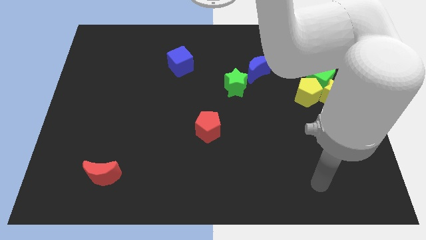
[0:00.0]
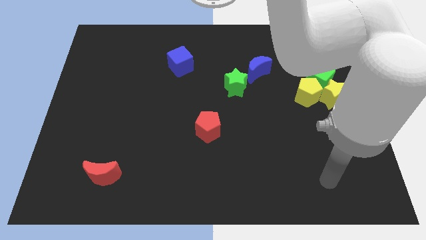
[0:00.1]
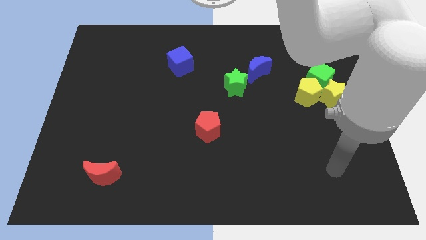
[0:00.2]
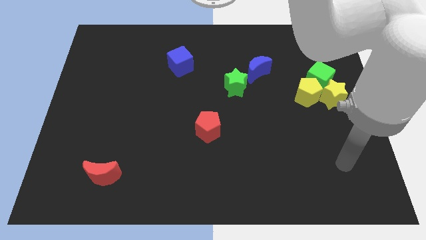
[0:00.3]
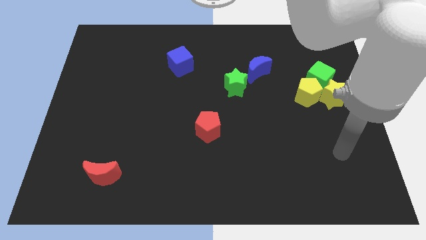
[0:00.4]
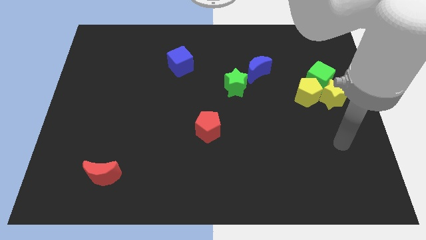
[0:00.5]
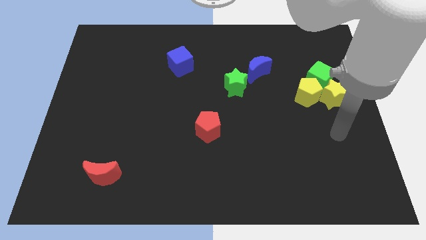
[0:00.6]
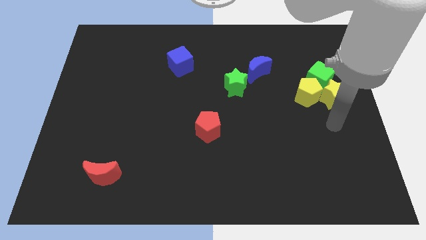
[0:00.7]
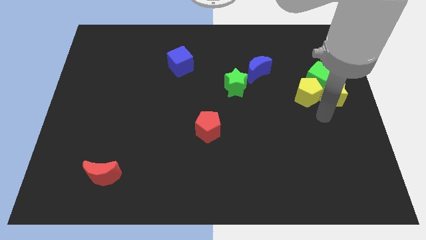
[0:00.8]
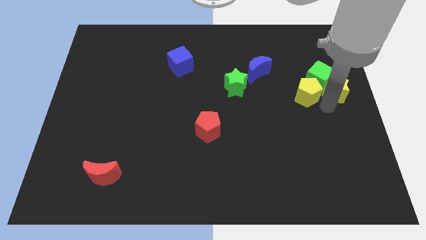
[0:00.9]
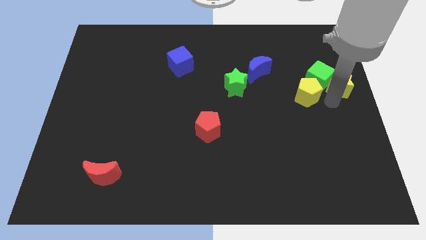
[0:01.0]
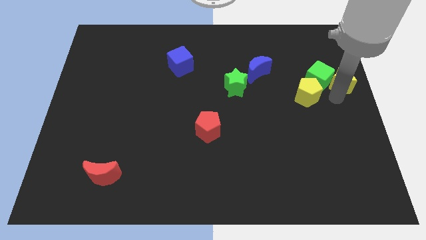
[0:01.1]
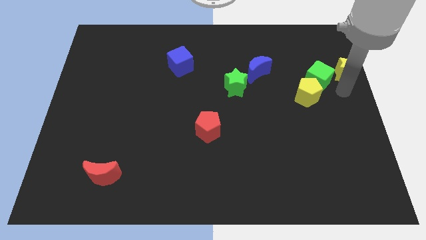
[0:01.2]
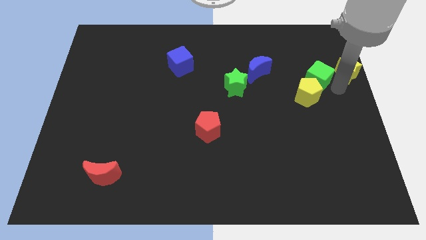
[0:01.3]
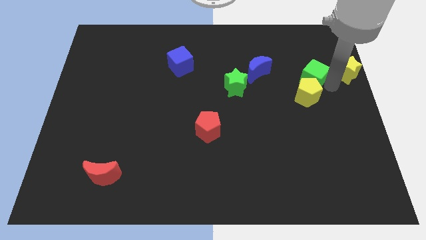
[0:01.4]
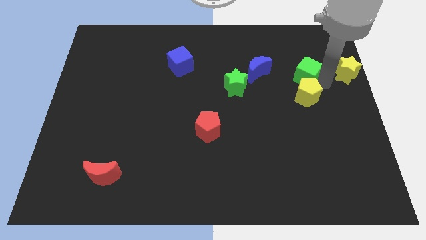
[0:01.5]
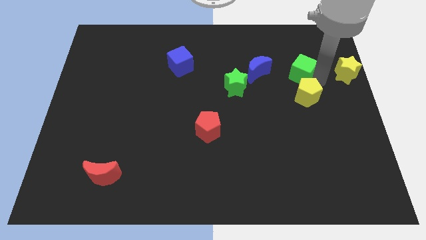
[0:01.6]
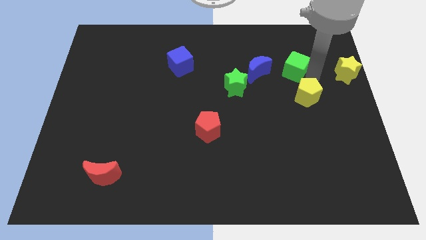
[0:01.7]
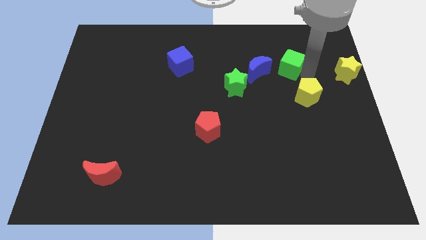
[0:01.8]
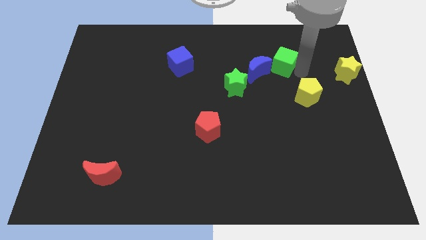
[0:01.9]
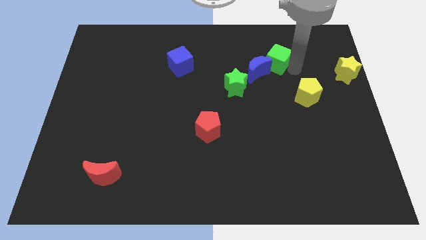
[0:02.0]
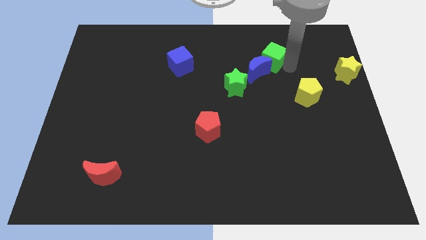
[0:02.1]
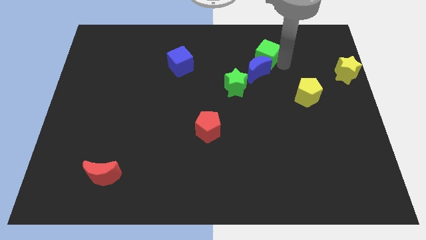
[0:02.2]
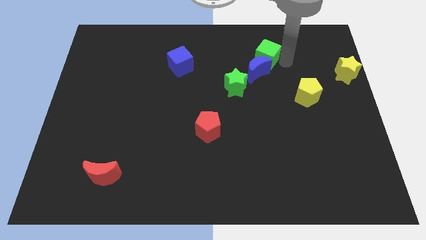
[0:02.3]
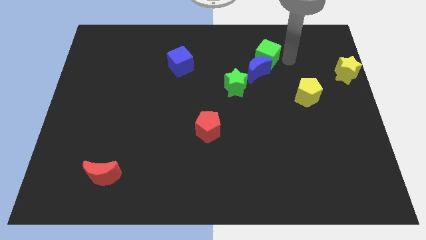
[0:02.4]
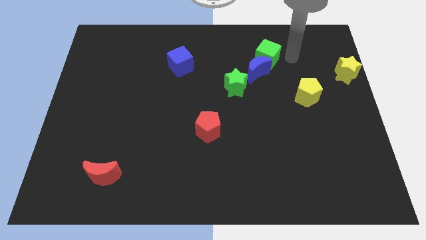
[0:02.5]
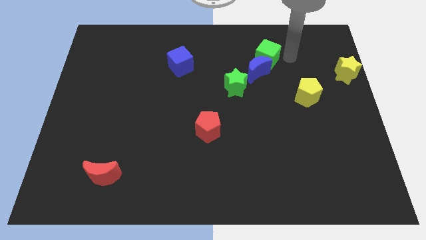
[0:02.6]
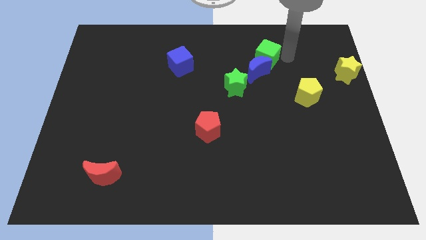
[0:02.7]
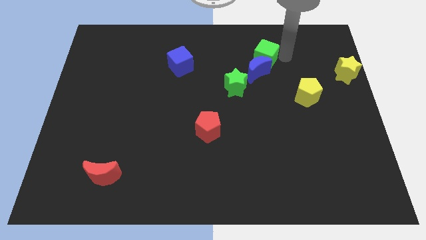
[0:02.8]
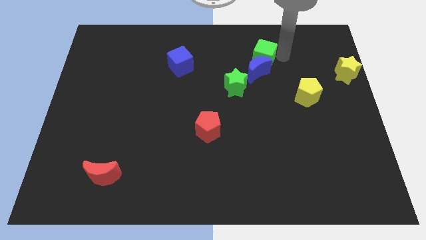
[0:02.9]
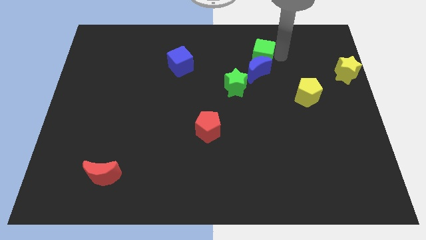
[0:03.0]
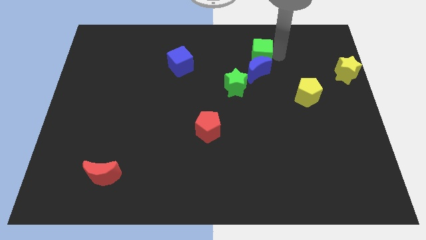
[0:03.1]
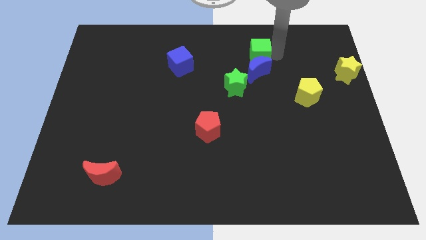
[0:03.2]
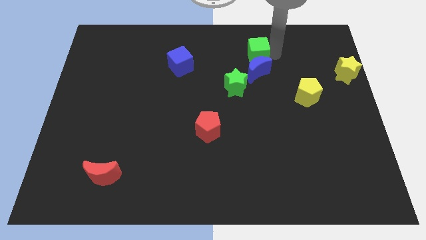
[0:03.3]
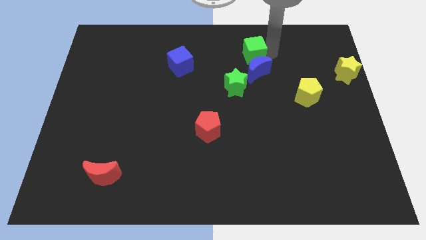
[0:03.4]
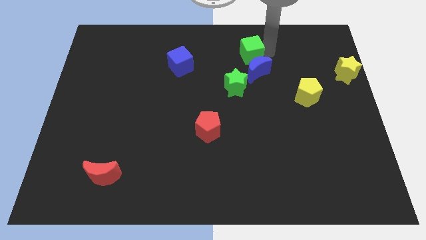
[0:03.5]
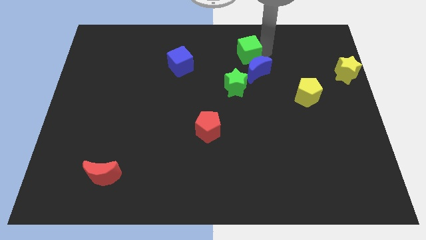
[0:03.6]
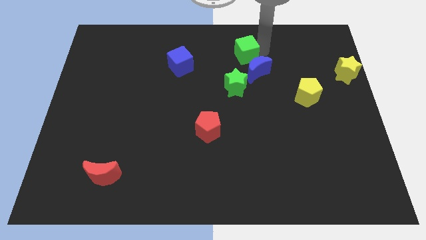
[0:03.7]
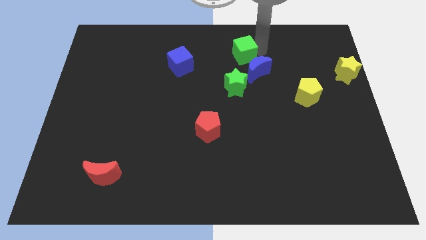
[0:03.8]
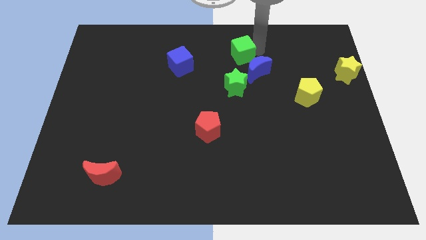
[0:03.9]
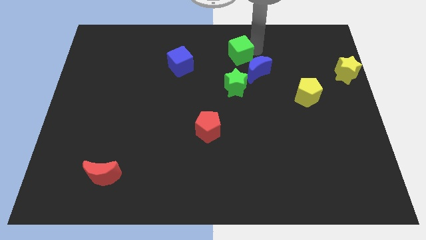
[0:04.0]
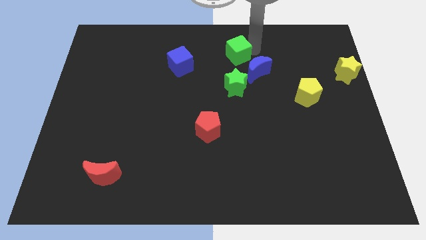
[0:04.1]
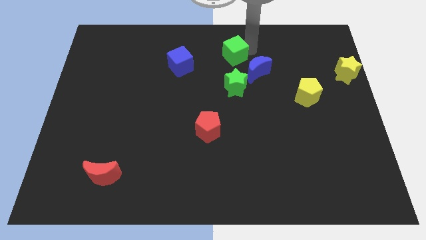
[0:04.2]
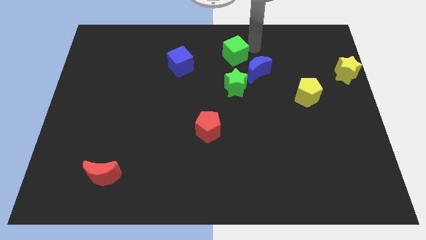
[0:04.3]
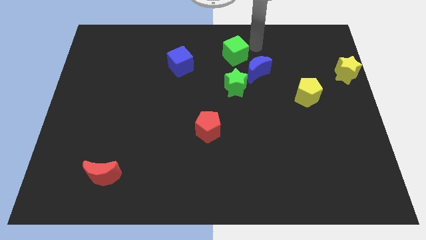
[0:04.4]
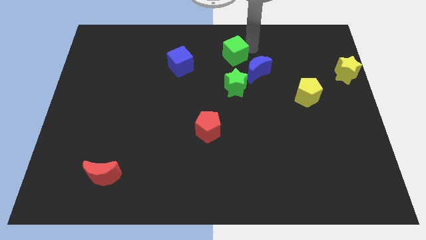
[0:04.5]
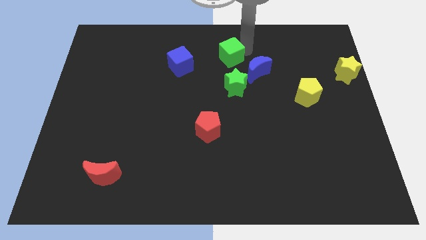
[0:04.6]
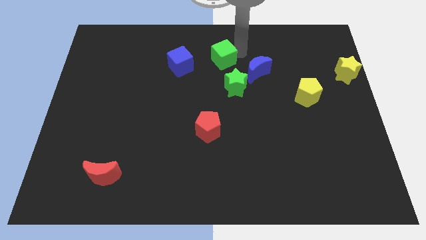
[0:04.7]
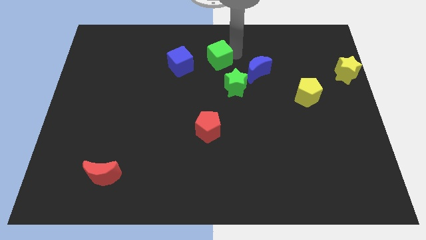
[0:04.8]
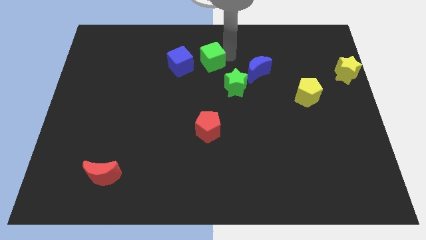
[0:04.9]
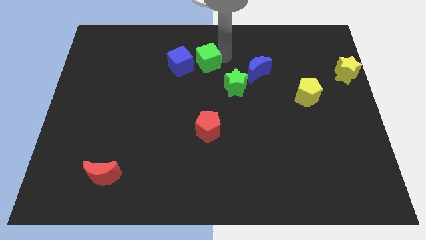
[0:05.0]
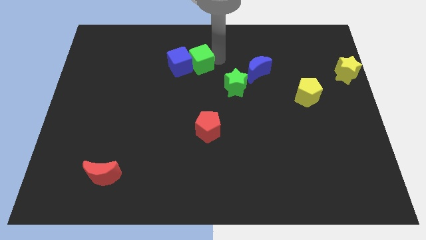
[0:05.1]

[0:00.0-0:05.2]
move the green cube next to the blue cube

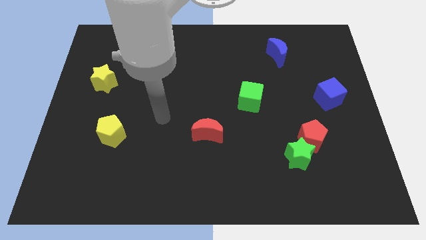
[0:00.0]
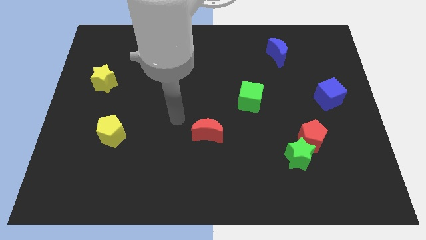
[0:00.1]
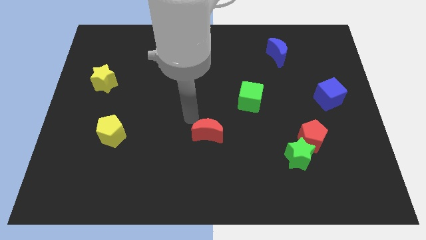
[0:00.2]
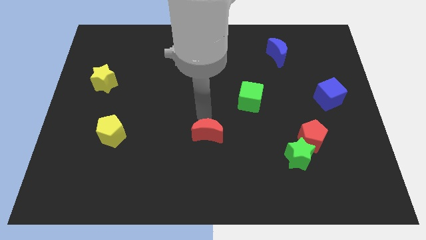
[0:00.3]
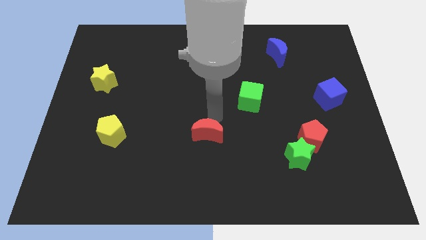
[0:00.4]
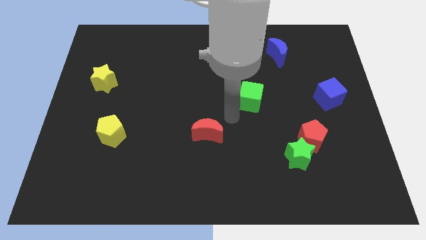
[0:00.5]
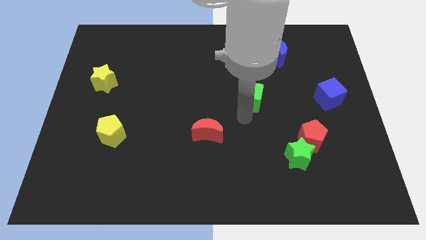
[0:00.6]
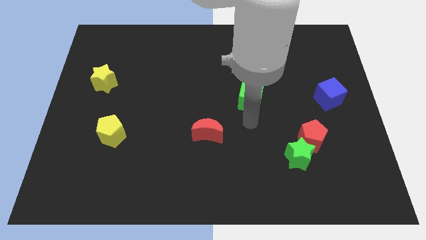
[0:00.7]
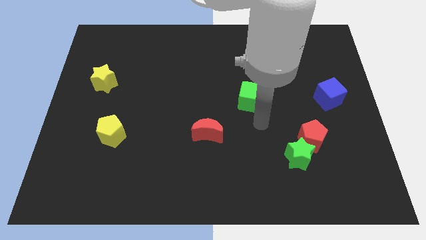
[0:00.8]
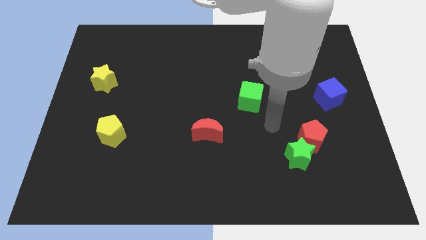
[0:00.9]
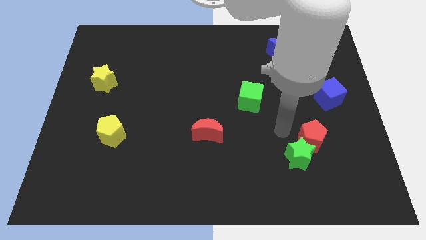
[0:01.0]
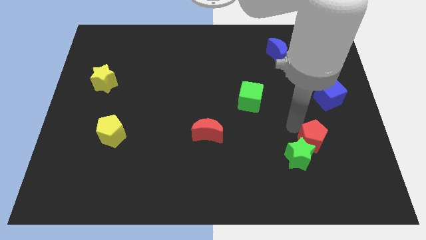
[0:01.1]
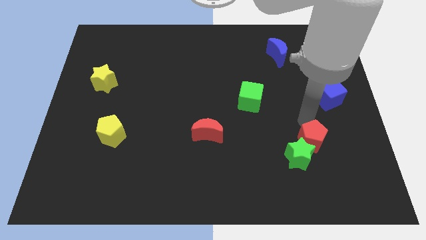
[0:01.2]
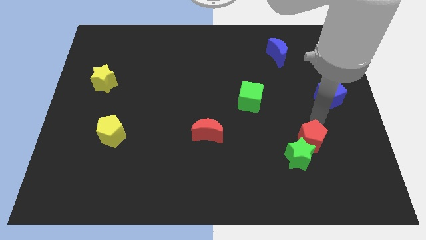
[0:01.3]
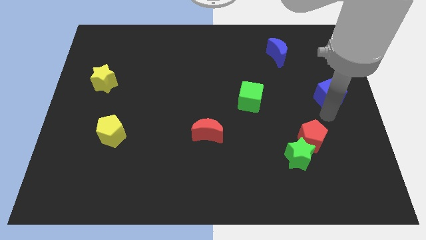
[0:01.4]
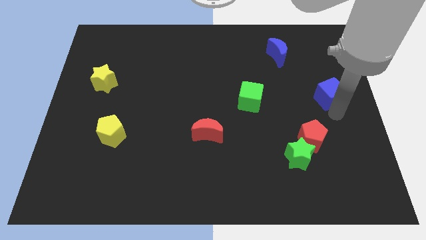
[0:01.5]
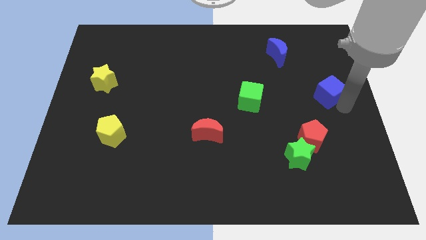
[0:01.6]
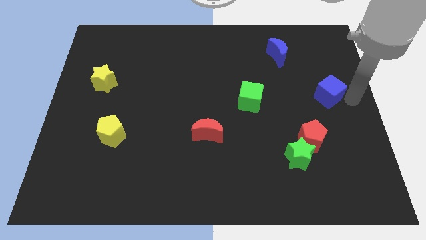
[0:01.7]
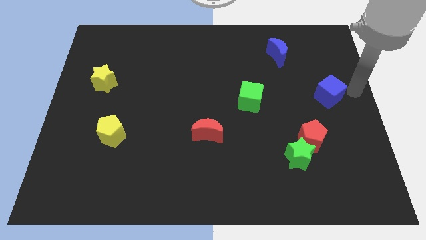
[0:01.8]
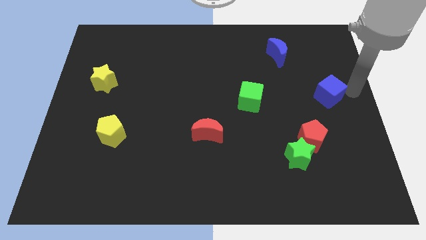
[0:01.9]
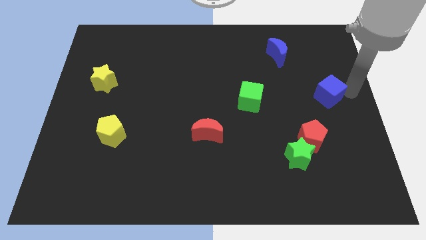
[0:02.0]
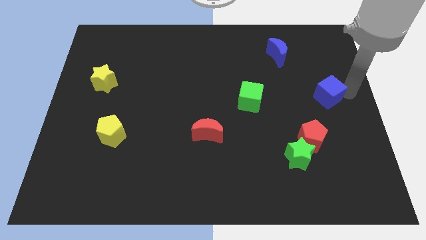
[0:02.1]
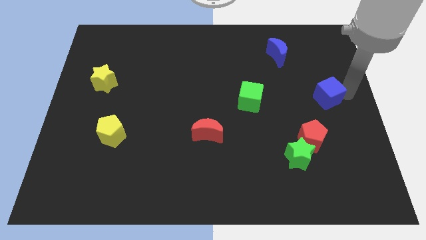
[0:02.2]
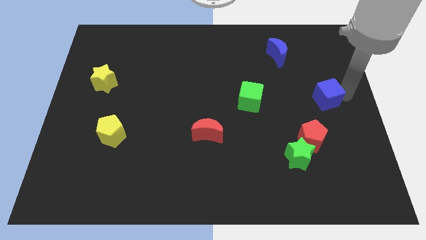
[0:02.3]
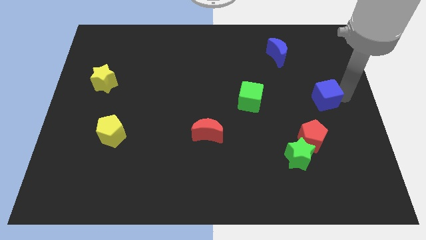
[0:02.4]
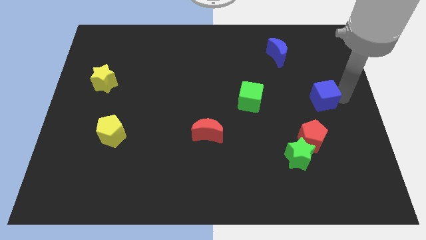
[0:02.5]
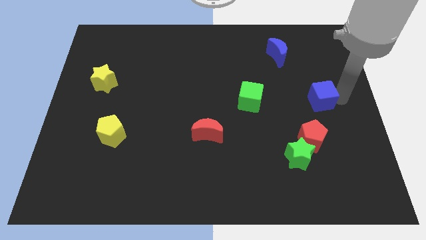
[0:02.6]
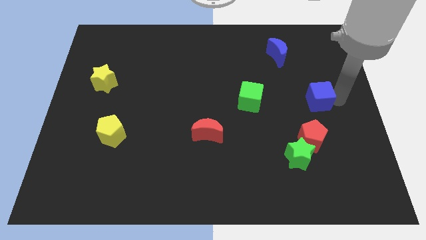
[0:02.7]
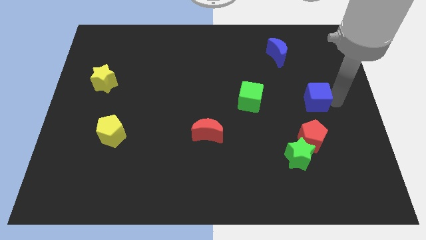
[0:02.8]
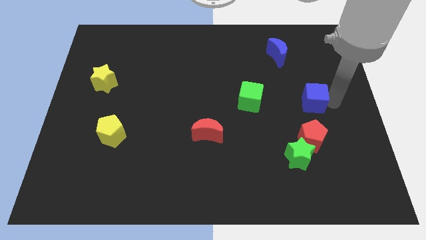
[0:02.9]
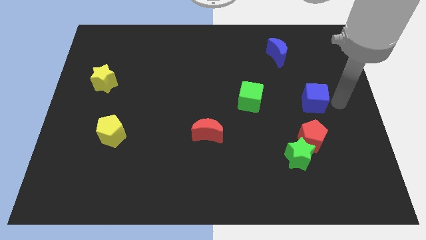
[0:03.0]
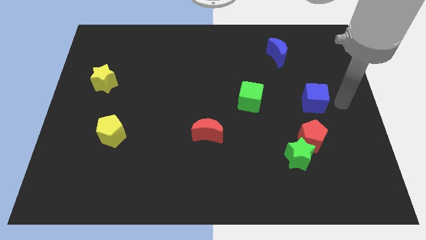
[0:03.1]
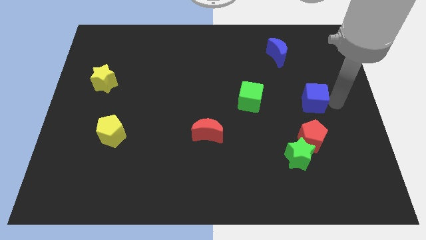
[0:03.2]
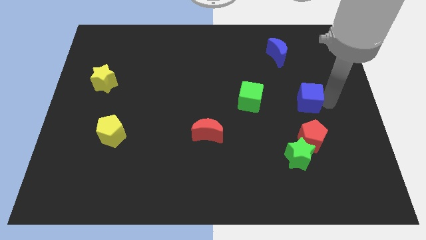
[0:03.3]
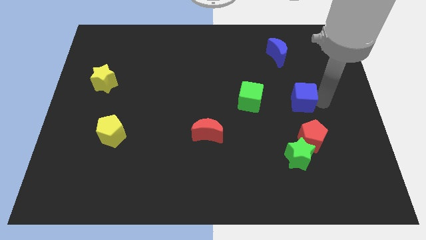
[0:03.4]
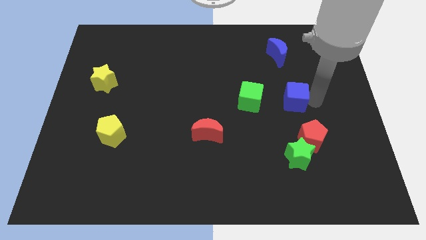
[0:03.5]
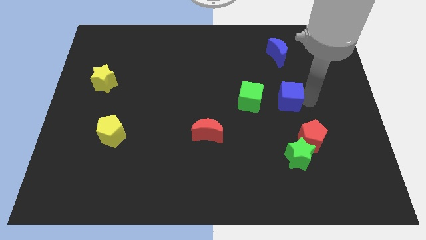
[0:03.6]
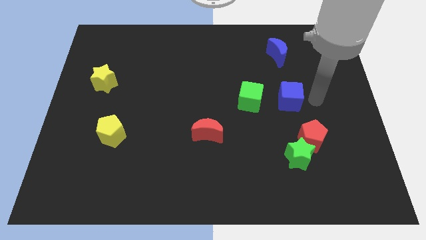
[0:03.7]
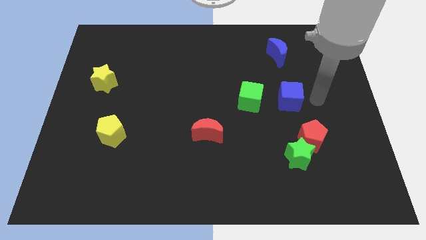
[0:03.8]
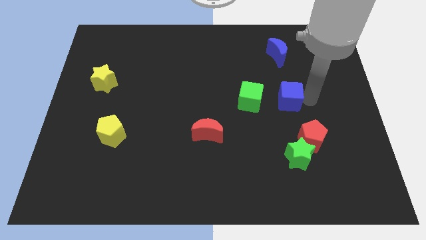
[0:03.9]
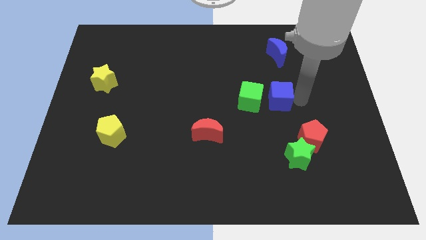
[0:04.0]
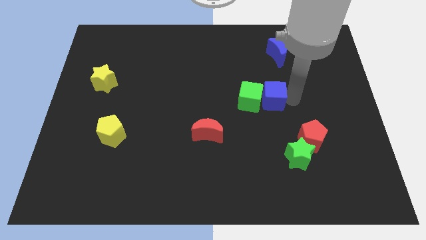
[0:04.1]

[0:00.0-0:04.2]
move the blue cube towards the green cube
